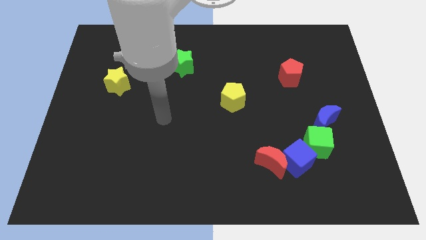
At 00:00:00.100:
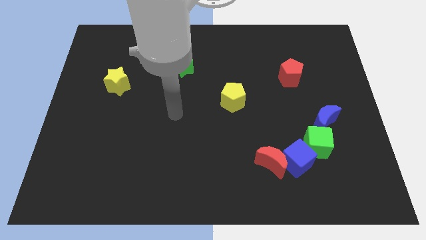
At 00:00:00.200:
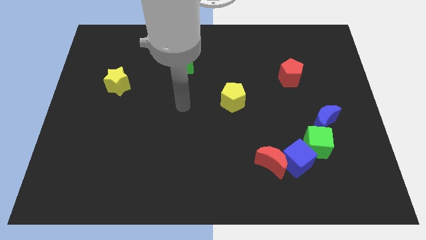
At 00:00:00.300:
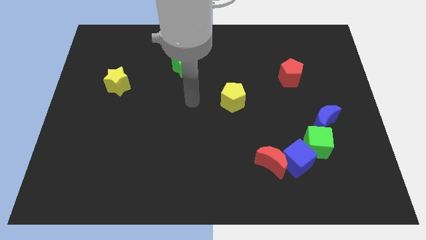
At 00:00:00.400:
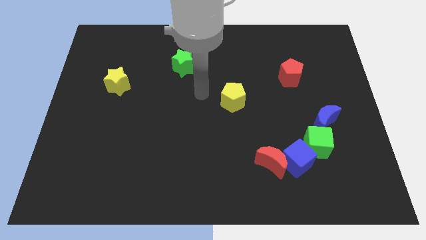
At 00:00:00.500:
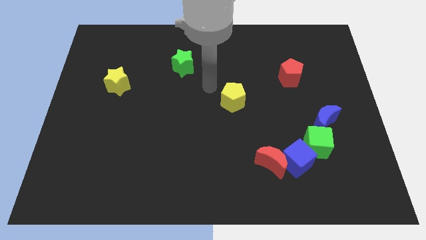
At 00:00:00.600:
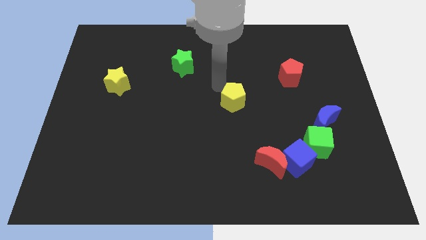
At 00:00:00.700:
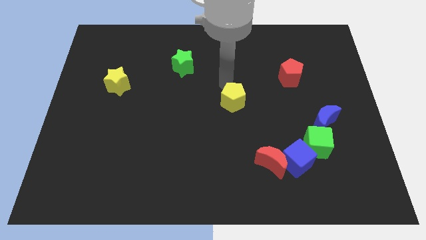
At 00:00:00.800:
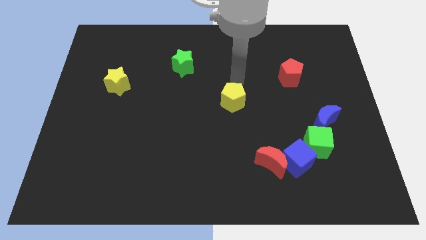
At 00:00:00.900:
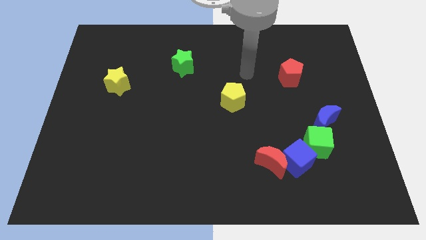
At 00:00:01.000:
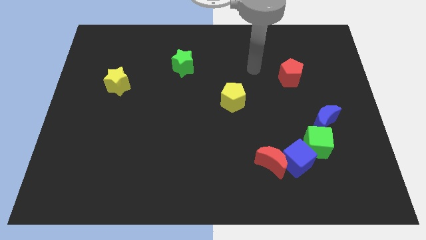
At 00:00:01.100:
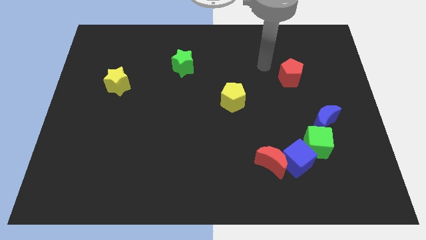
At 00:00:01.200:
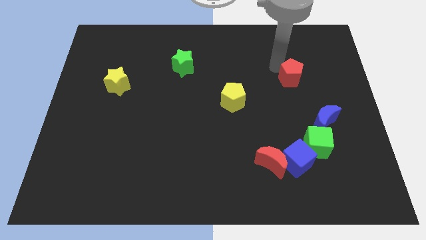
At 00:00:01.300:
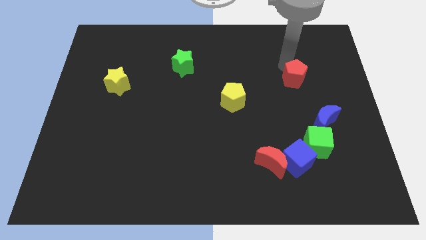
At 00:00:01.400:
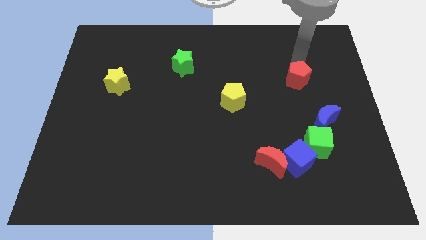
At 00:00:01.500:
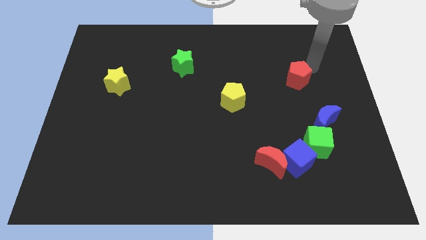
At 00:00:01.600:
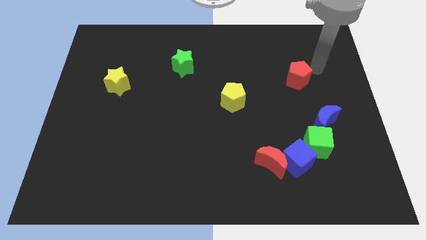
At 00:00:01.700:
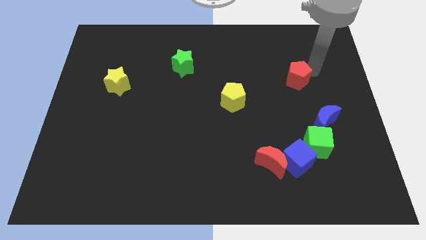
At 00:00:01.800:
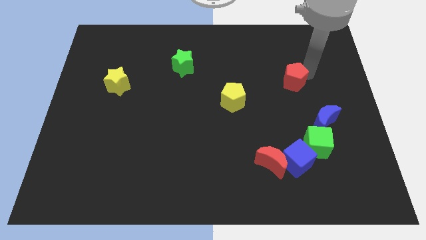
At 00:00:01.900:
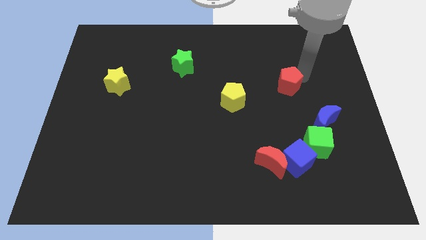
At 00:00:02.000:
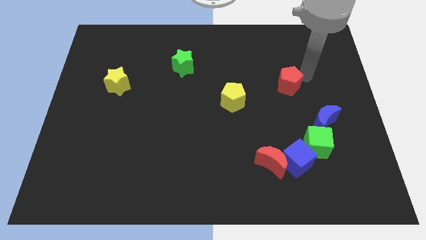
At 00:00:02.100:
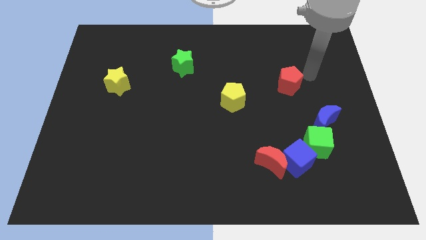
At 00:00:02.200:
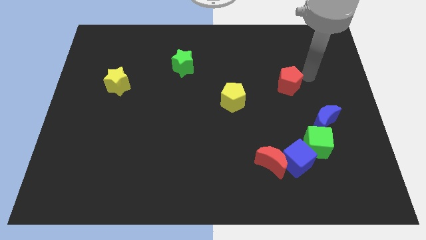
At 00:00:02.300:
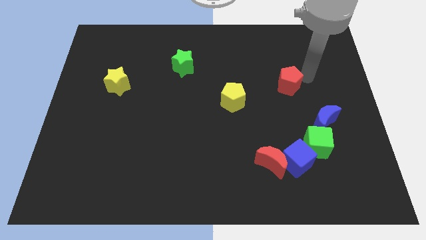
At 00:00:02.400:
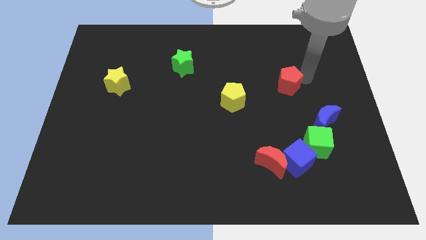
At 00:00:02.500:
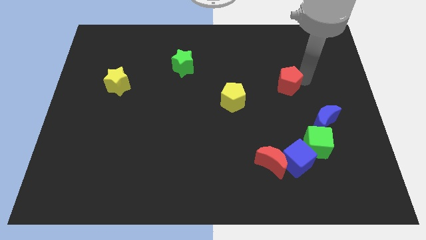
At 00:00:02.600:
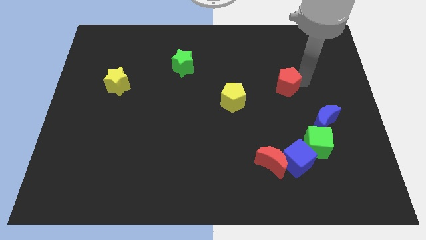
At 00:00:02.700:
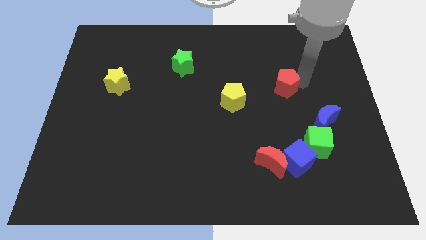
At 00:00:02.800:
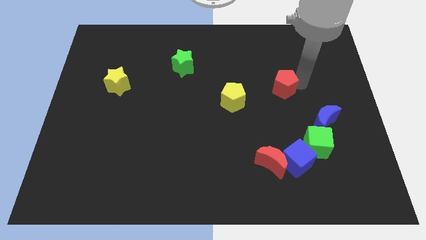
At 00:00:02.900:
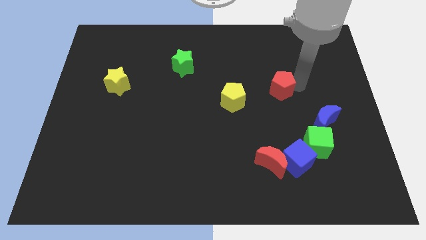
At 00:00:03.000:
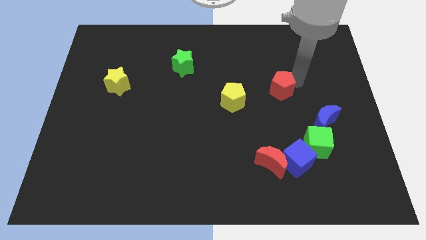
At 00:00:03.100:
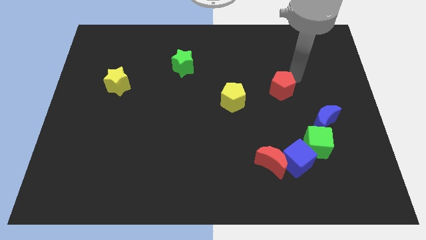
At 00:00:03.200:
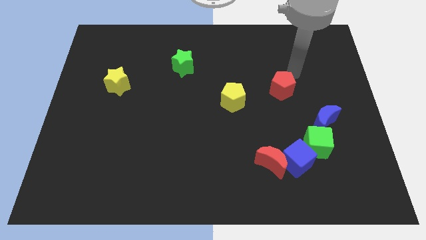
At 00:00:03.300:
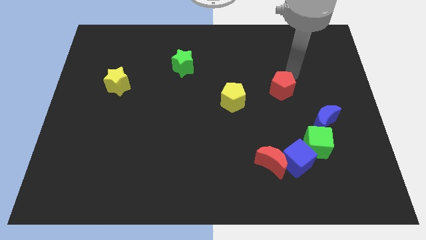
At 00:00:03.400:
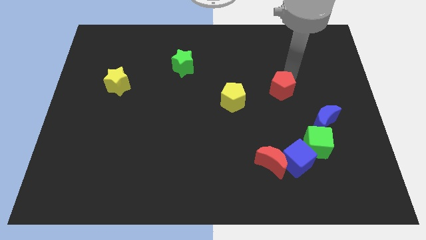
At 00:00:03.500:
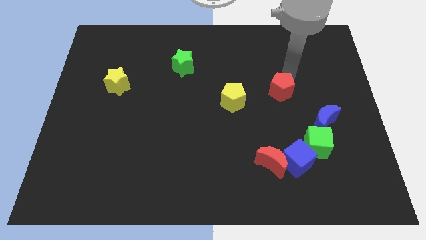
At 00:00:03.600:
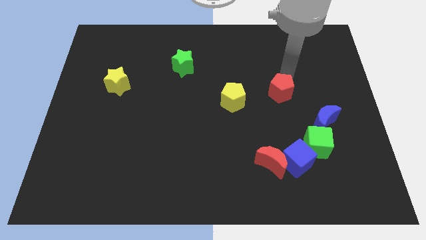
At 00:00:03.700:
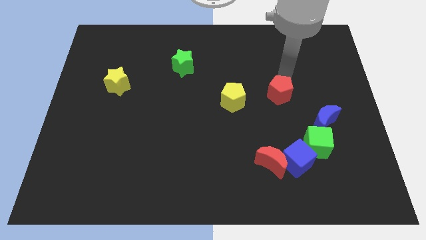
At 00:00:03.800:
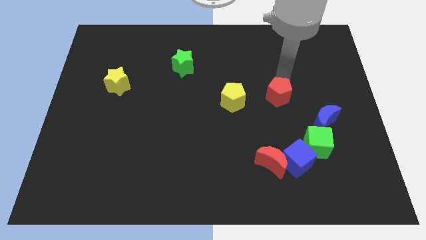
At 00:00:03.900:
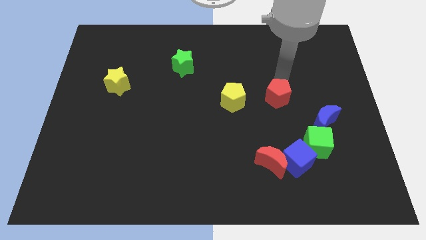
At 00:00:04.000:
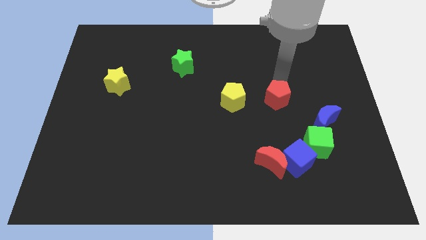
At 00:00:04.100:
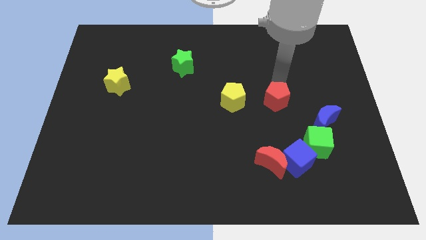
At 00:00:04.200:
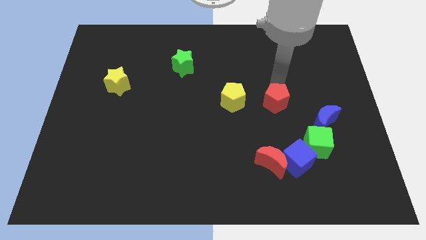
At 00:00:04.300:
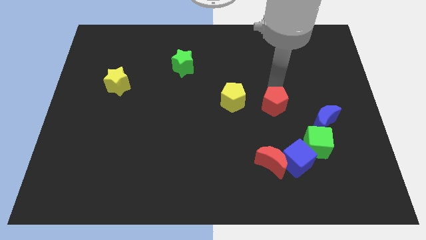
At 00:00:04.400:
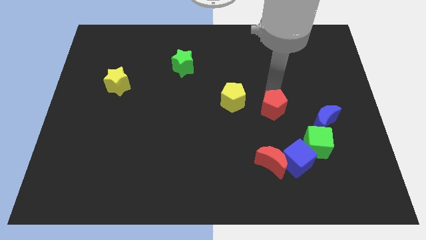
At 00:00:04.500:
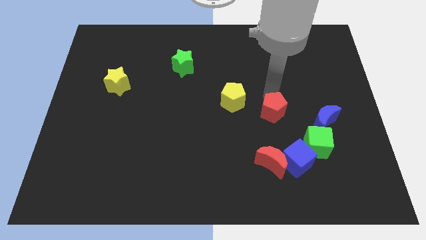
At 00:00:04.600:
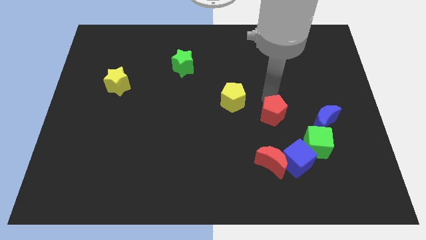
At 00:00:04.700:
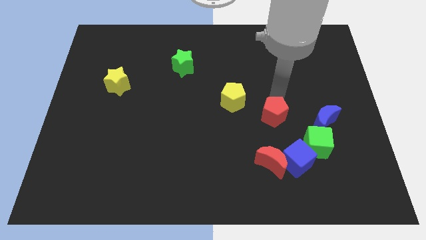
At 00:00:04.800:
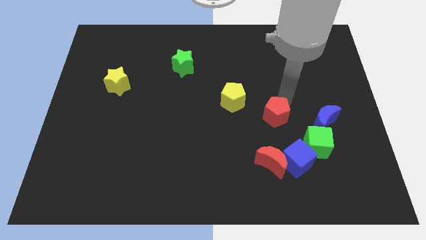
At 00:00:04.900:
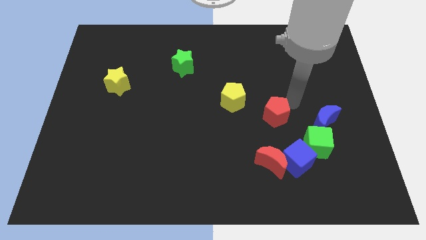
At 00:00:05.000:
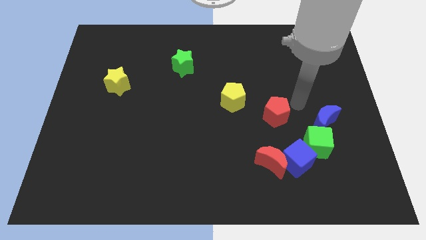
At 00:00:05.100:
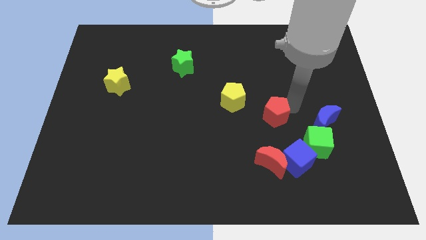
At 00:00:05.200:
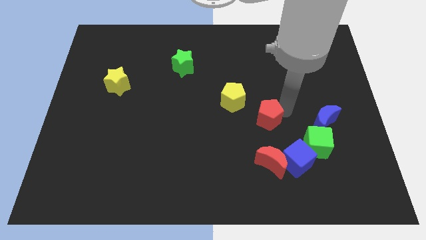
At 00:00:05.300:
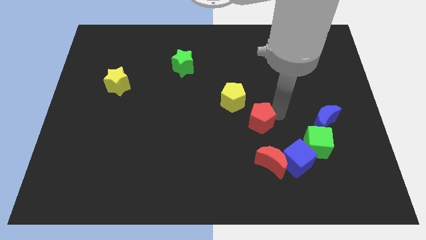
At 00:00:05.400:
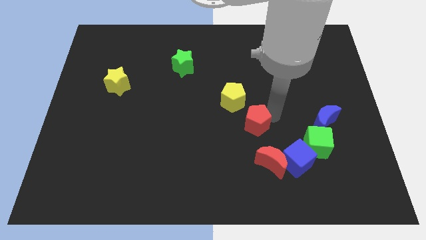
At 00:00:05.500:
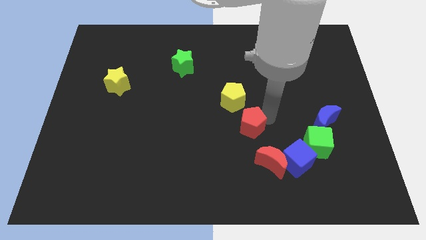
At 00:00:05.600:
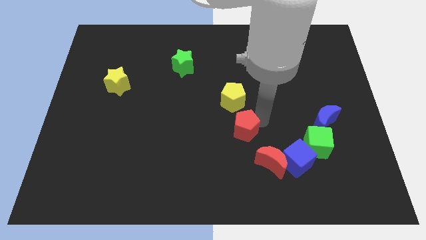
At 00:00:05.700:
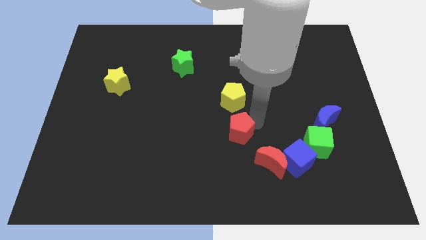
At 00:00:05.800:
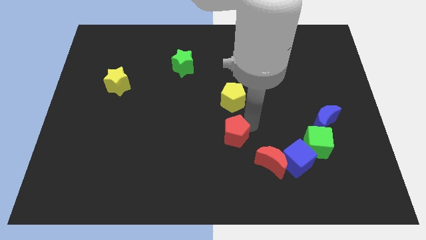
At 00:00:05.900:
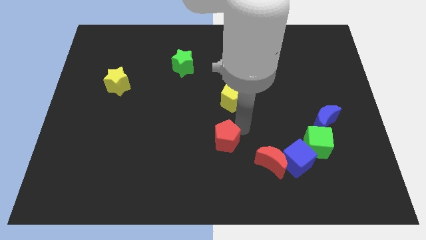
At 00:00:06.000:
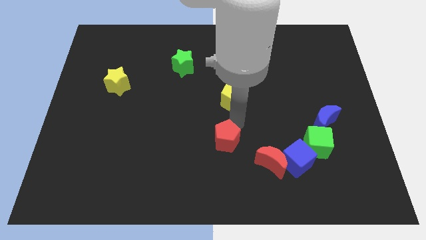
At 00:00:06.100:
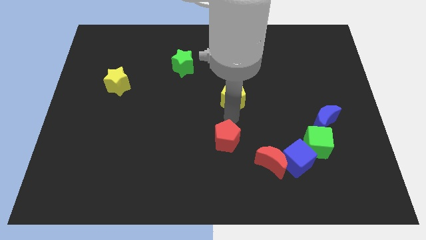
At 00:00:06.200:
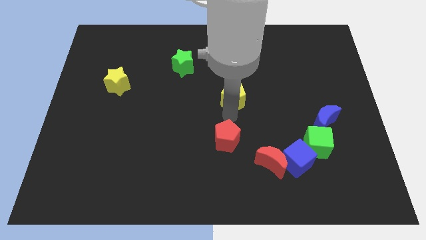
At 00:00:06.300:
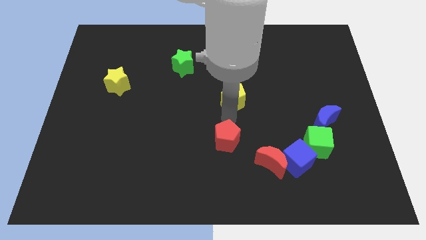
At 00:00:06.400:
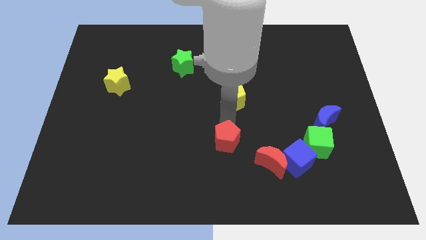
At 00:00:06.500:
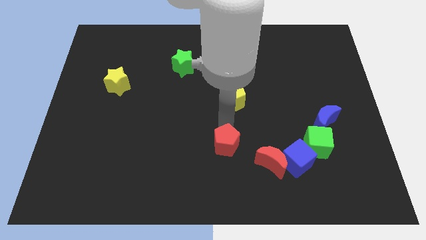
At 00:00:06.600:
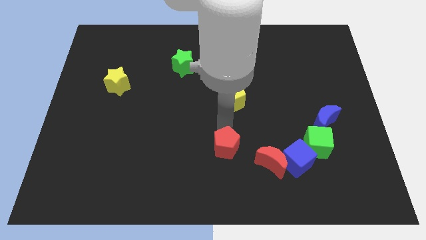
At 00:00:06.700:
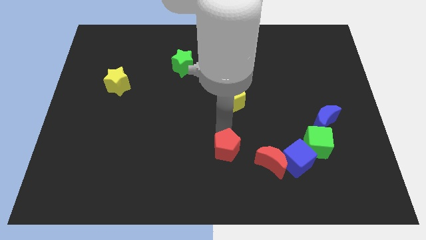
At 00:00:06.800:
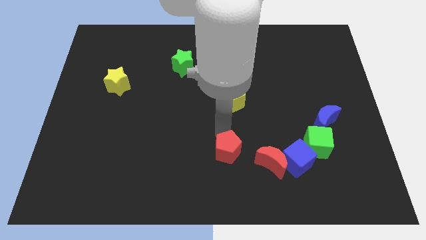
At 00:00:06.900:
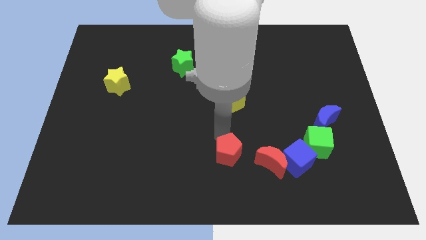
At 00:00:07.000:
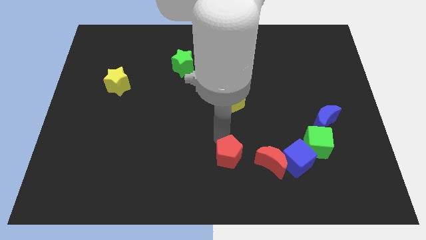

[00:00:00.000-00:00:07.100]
slide the red pentagon to the bottom side
